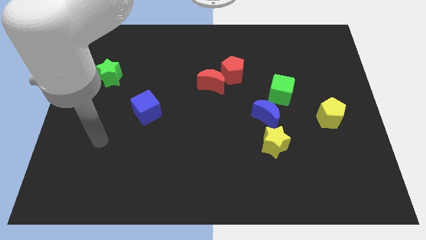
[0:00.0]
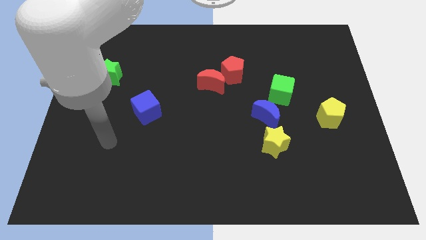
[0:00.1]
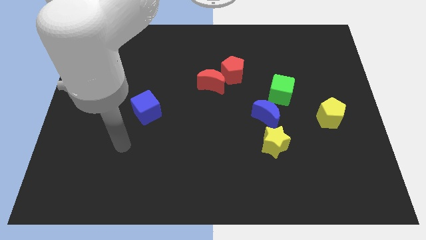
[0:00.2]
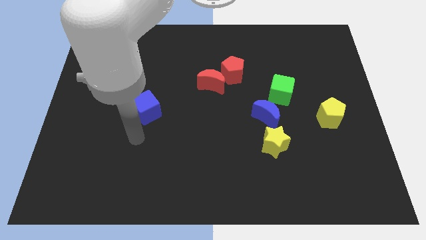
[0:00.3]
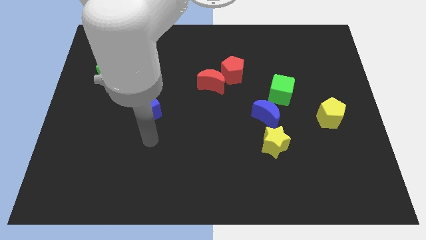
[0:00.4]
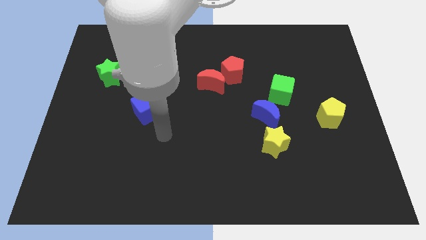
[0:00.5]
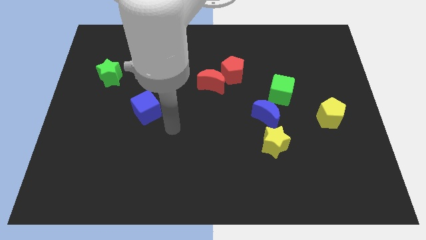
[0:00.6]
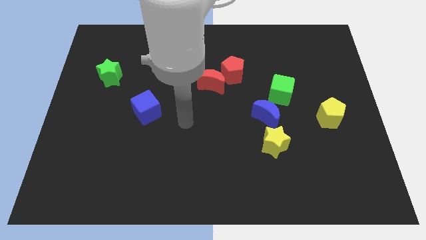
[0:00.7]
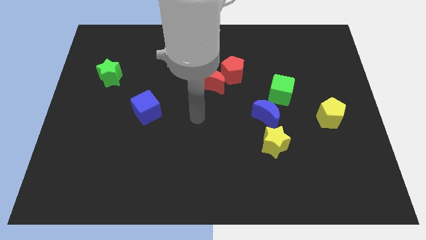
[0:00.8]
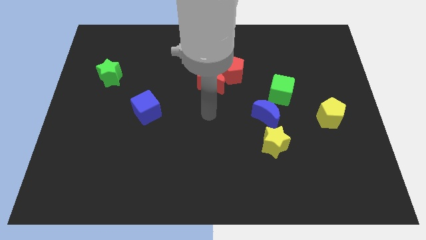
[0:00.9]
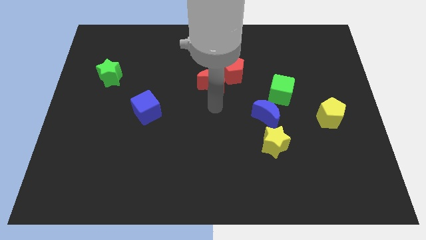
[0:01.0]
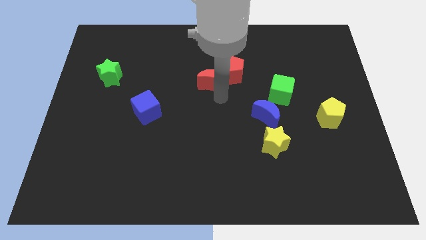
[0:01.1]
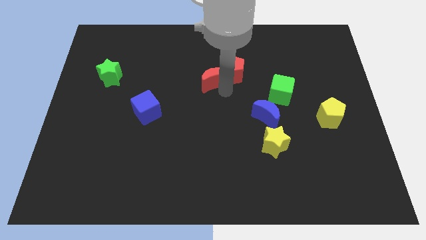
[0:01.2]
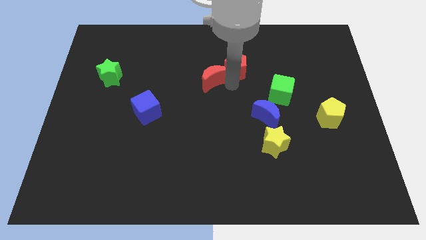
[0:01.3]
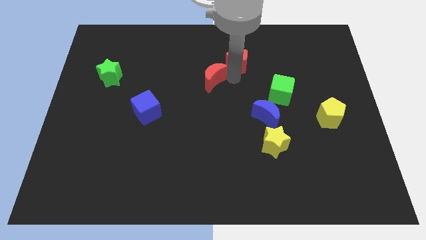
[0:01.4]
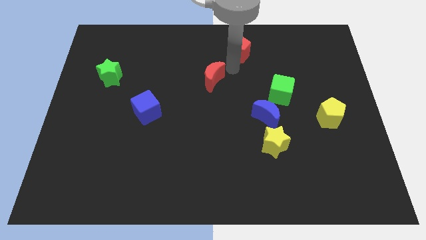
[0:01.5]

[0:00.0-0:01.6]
move the red moon away from the red pentagon

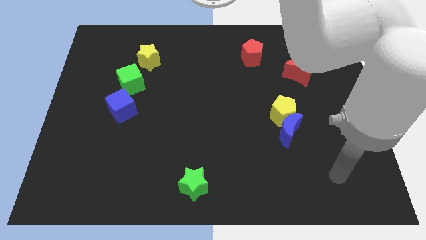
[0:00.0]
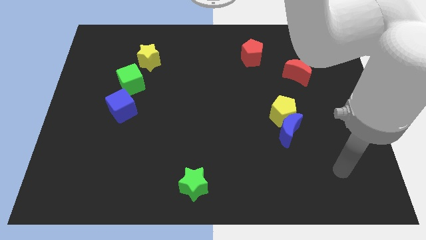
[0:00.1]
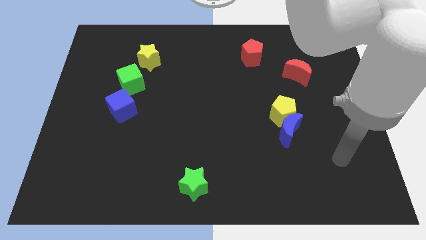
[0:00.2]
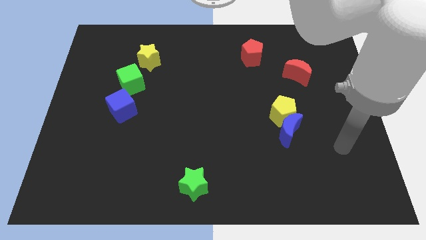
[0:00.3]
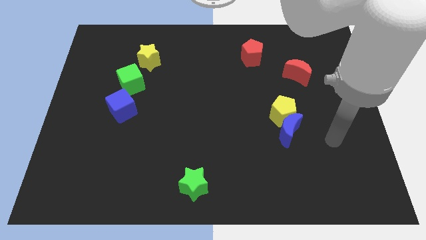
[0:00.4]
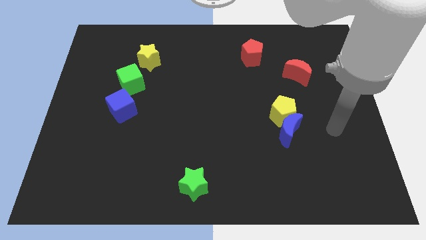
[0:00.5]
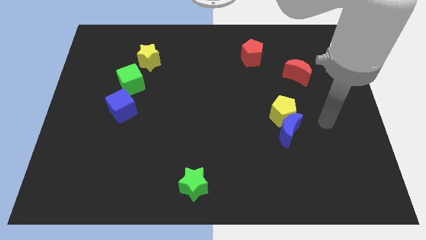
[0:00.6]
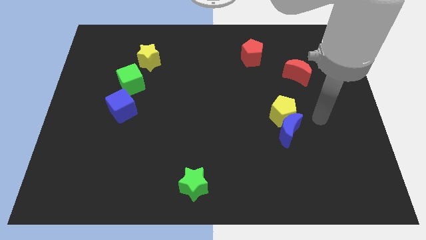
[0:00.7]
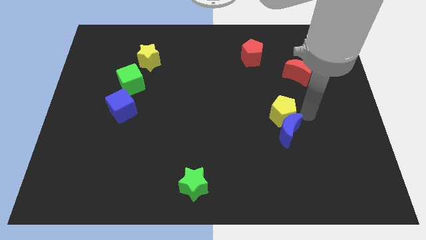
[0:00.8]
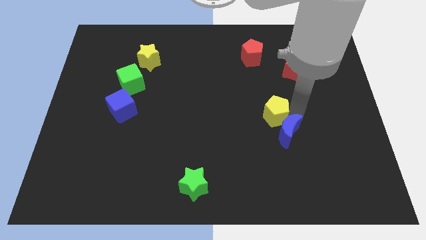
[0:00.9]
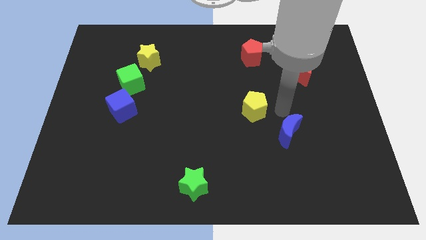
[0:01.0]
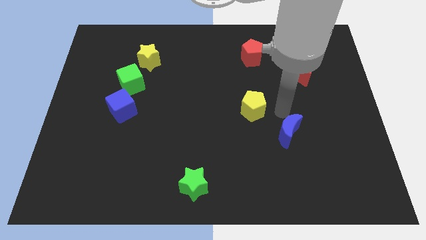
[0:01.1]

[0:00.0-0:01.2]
separate the blue moon from the yellow pentagon

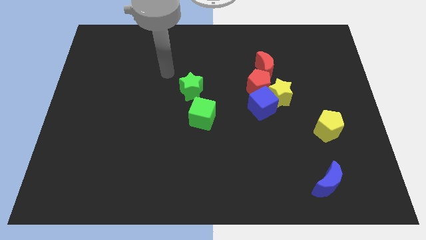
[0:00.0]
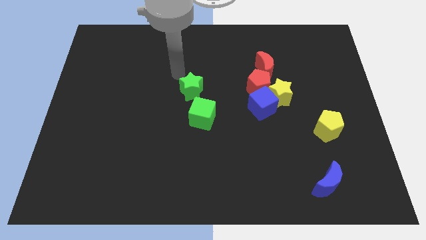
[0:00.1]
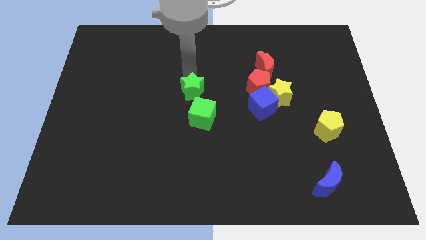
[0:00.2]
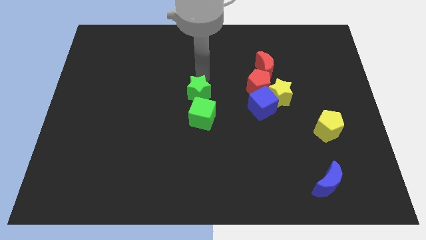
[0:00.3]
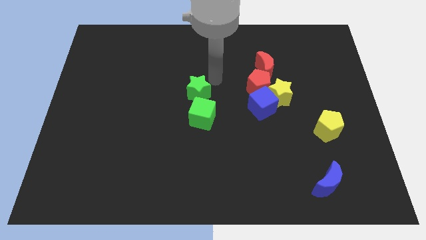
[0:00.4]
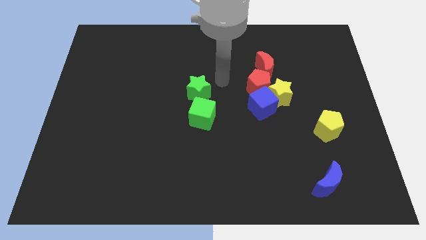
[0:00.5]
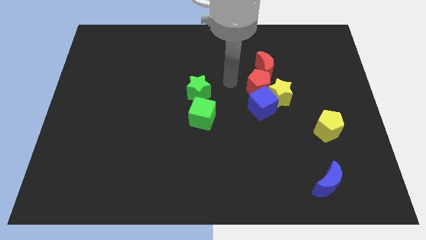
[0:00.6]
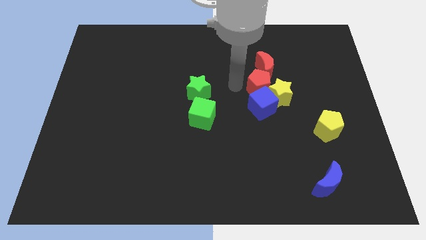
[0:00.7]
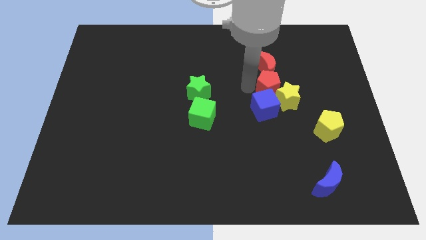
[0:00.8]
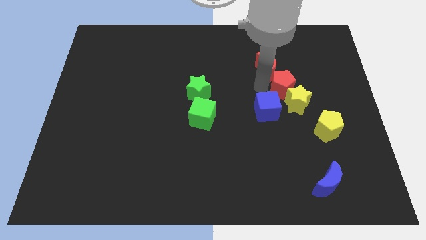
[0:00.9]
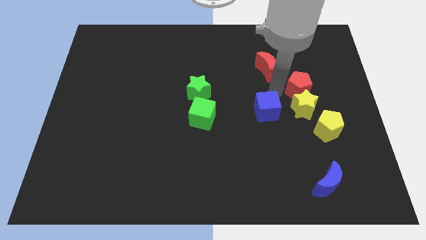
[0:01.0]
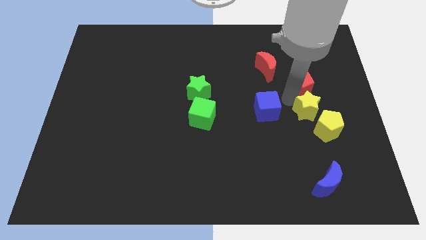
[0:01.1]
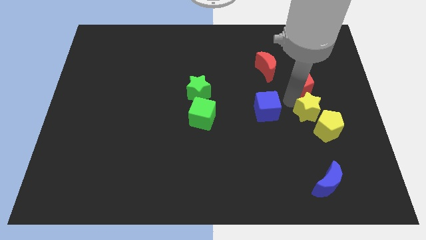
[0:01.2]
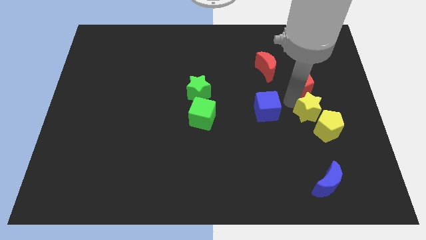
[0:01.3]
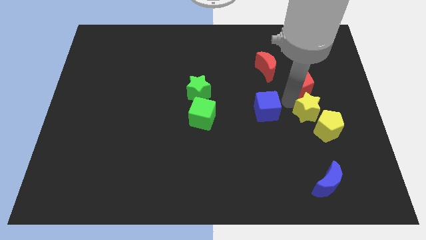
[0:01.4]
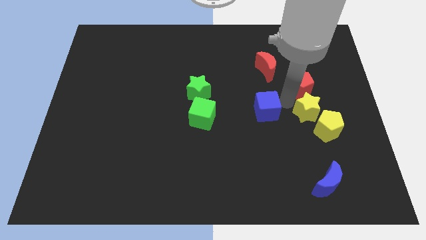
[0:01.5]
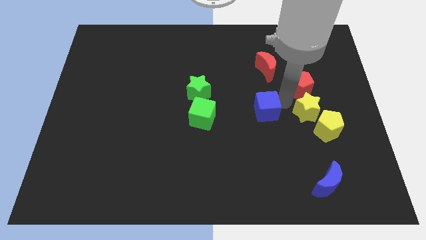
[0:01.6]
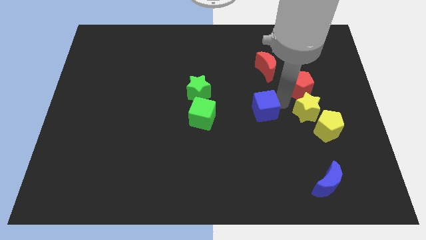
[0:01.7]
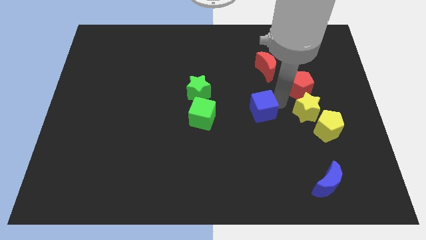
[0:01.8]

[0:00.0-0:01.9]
separate the blue cube from the yellow star and red pentagon

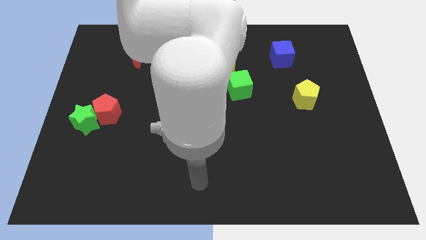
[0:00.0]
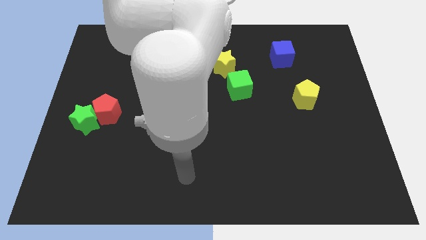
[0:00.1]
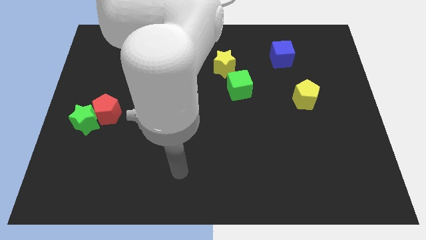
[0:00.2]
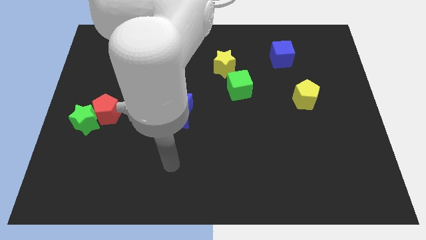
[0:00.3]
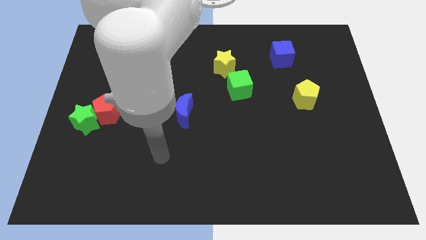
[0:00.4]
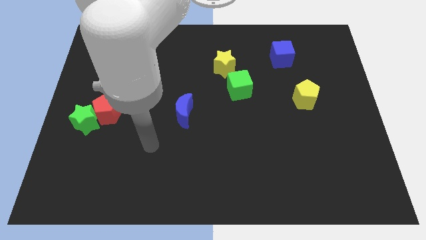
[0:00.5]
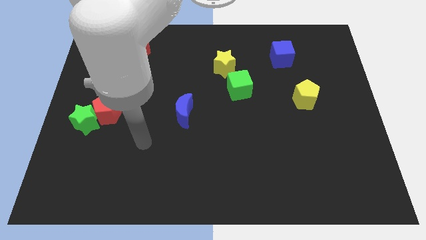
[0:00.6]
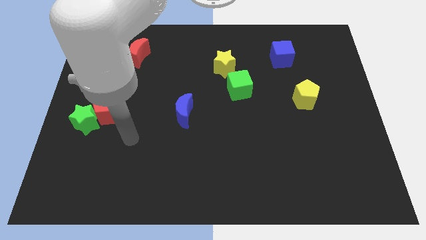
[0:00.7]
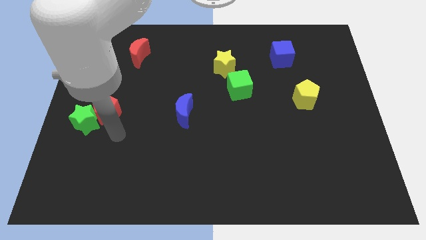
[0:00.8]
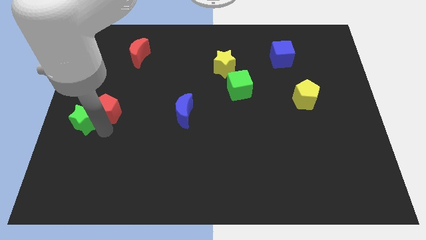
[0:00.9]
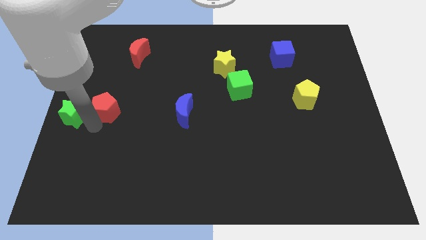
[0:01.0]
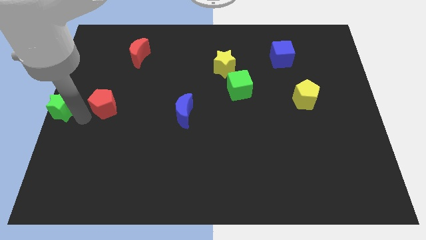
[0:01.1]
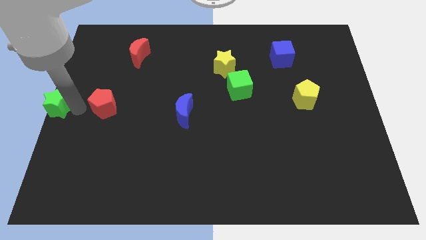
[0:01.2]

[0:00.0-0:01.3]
move the red pentagon away from the green star

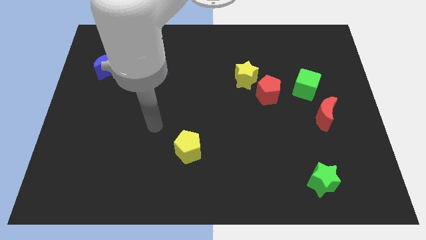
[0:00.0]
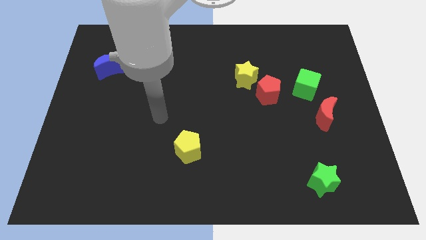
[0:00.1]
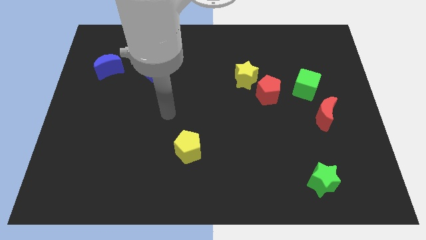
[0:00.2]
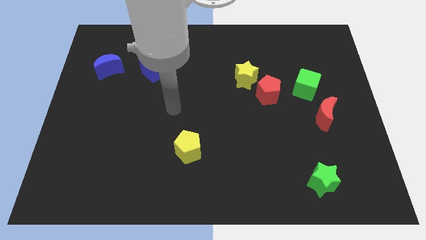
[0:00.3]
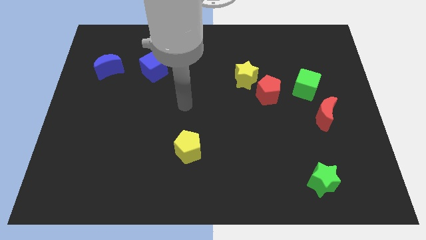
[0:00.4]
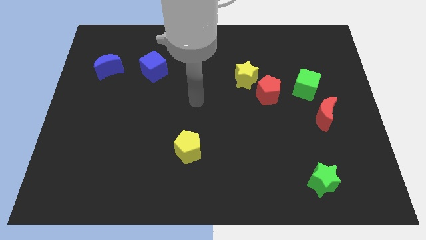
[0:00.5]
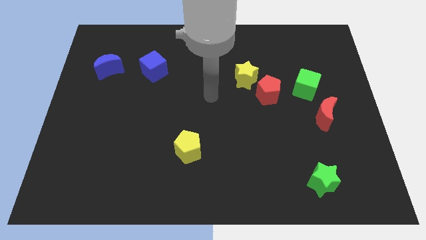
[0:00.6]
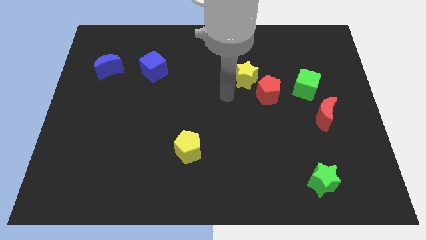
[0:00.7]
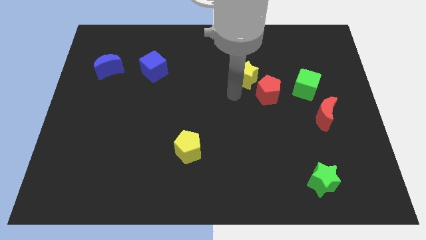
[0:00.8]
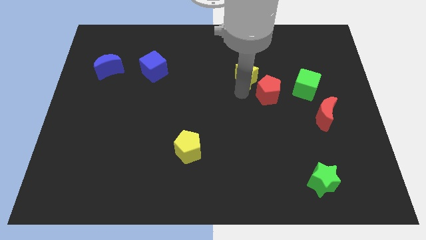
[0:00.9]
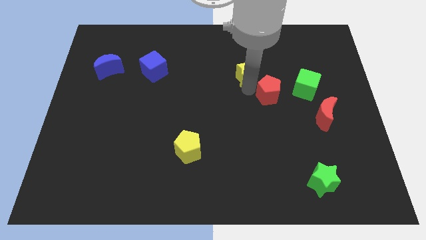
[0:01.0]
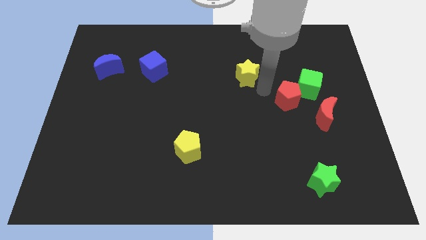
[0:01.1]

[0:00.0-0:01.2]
pull the yellow star apart from the red pentagon

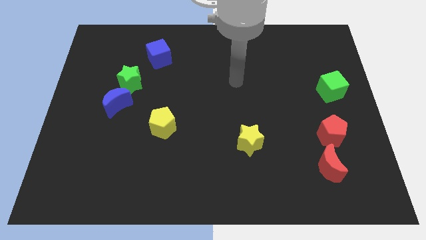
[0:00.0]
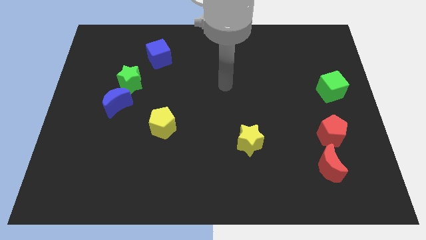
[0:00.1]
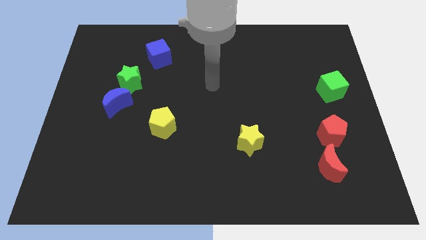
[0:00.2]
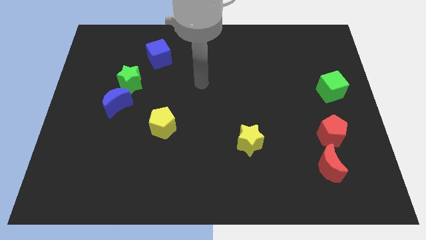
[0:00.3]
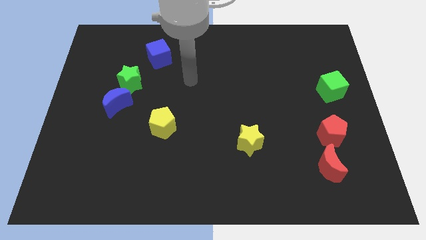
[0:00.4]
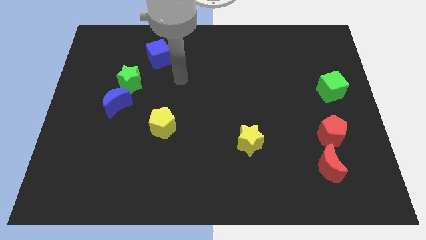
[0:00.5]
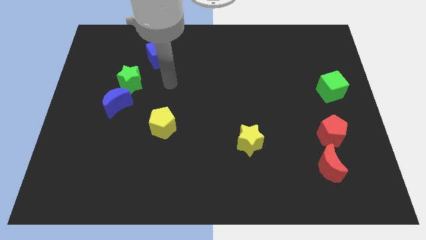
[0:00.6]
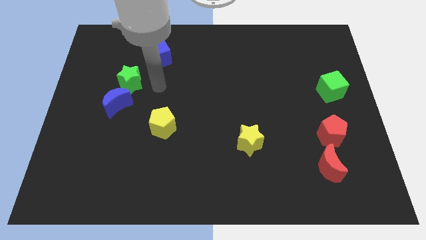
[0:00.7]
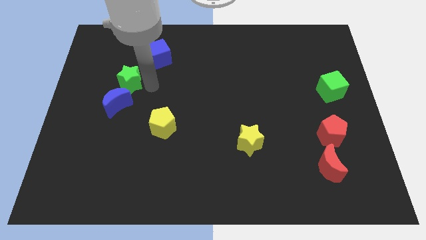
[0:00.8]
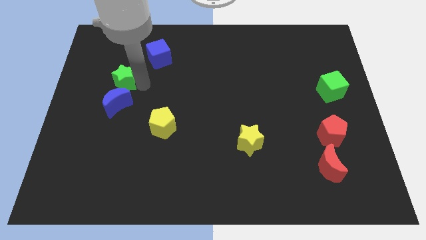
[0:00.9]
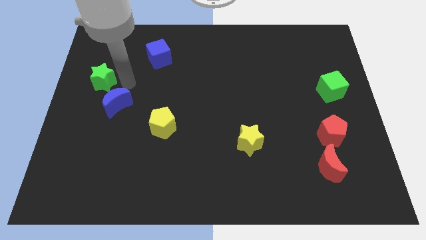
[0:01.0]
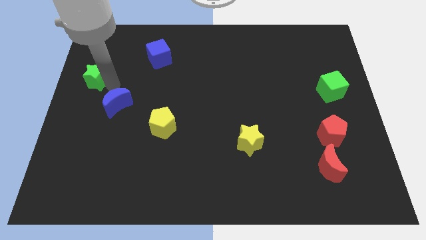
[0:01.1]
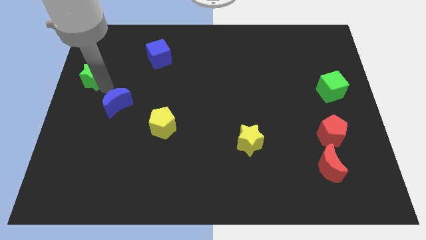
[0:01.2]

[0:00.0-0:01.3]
move the blue moon away from the green star

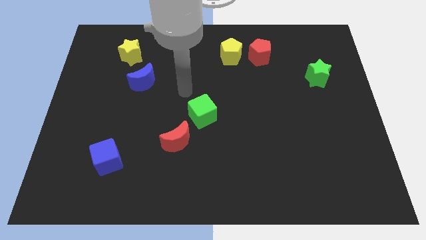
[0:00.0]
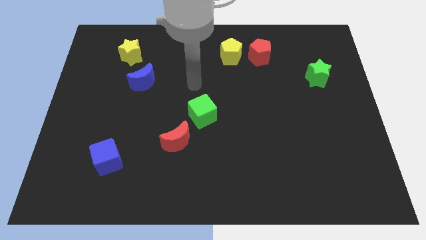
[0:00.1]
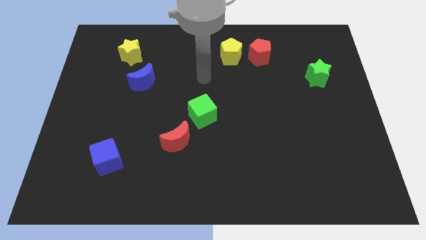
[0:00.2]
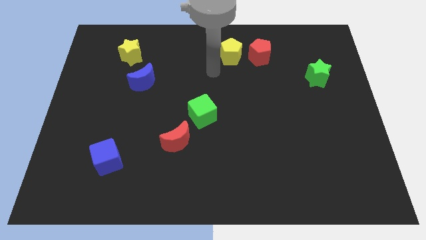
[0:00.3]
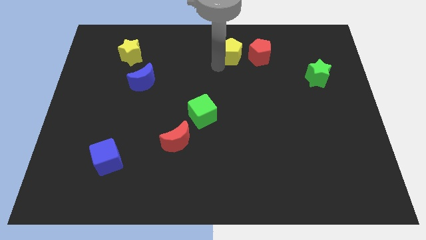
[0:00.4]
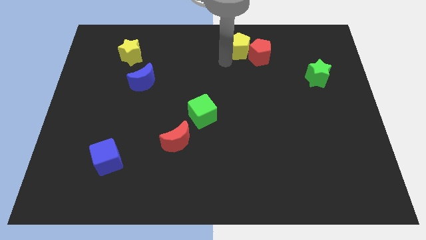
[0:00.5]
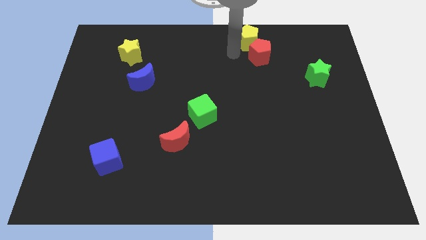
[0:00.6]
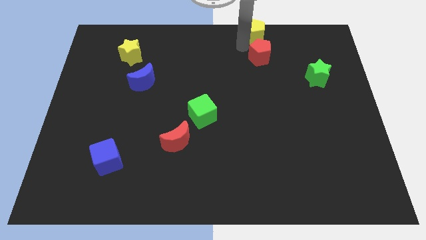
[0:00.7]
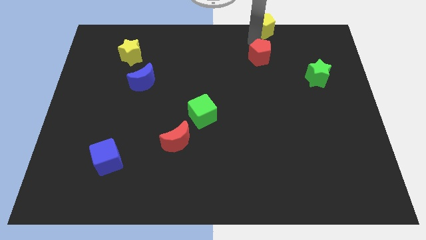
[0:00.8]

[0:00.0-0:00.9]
separate the red pentagon from the yellow pentagon
